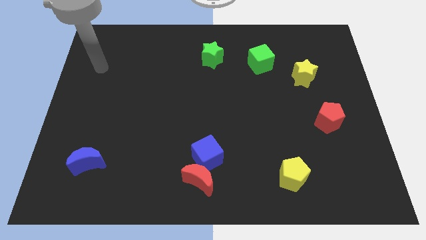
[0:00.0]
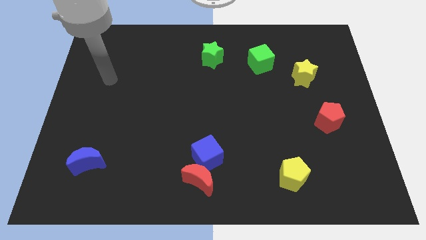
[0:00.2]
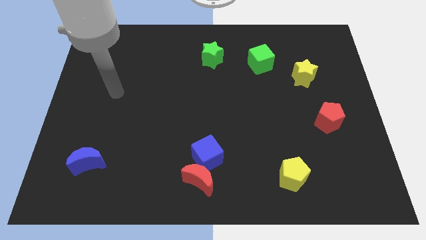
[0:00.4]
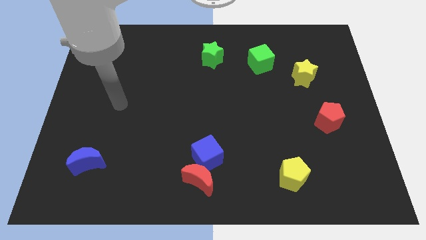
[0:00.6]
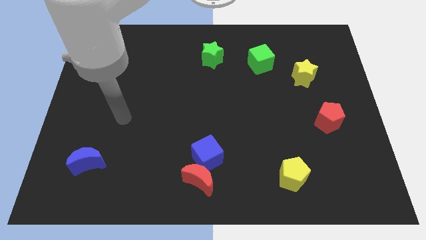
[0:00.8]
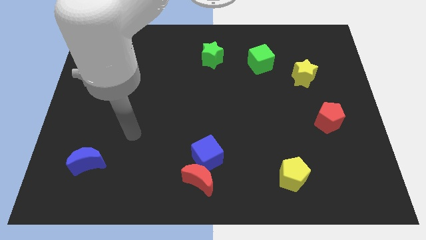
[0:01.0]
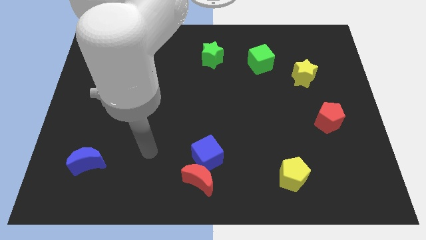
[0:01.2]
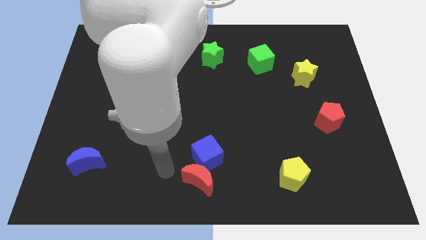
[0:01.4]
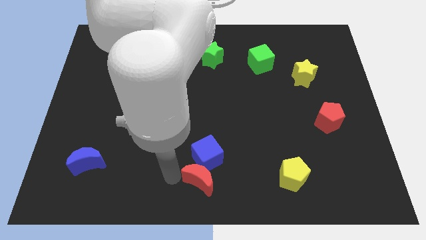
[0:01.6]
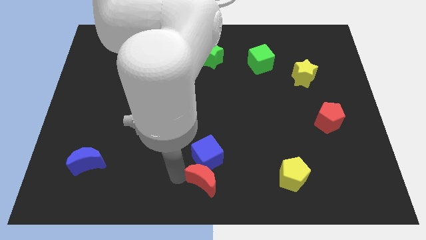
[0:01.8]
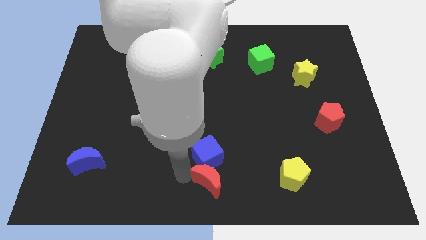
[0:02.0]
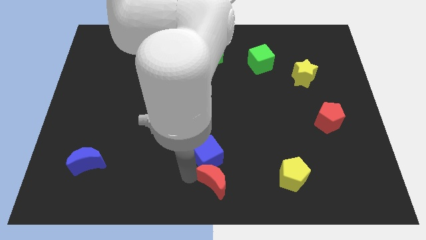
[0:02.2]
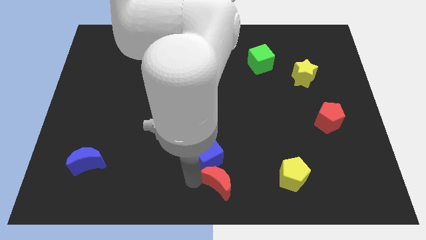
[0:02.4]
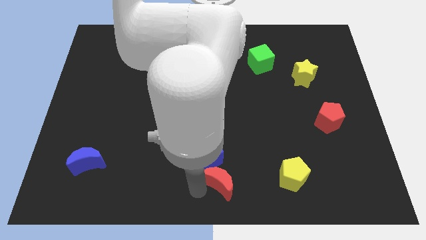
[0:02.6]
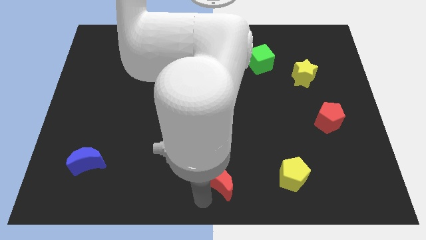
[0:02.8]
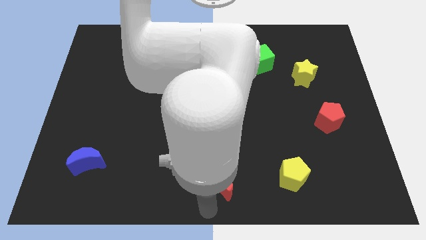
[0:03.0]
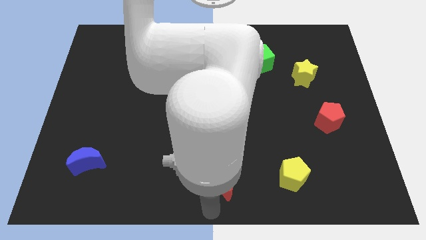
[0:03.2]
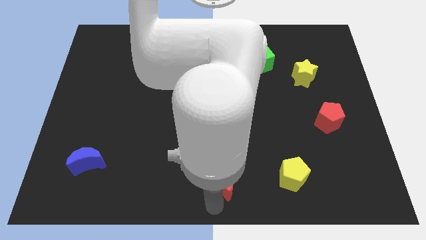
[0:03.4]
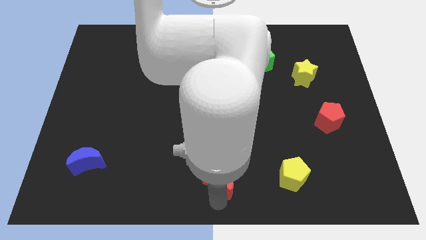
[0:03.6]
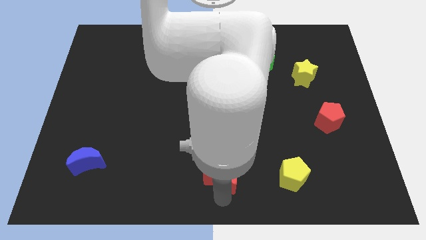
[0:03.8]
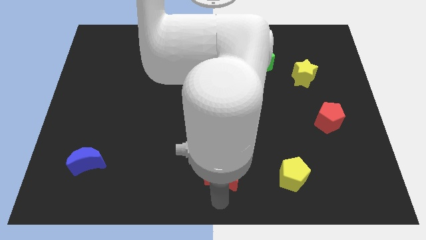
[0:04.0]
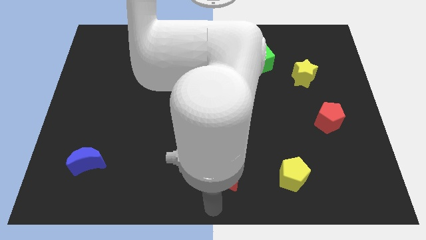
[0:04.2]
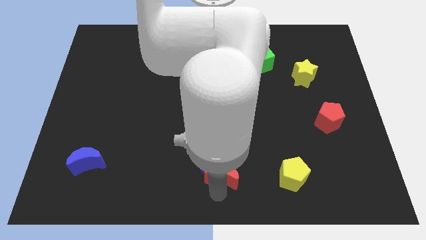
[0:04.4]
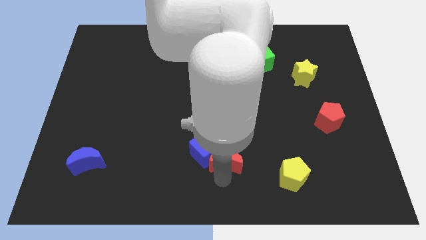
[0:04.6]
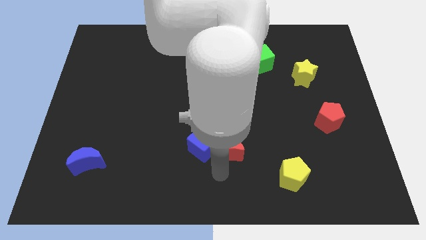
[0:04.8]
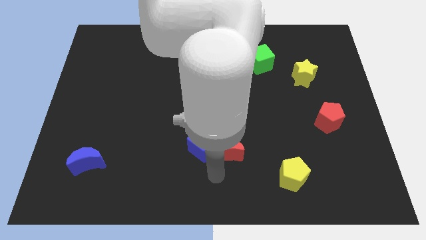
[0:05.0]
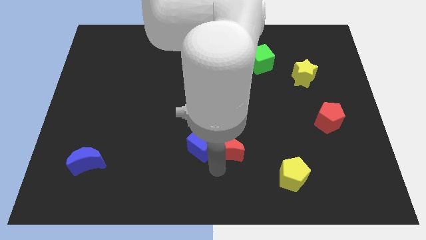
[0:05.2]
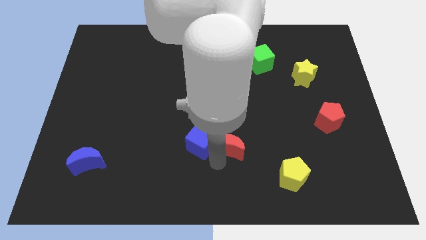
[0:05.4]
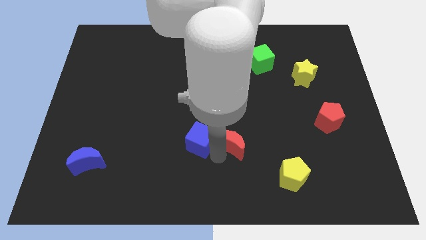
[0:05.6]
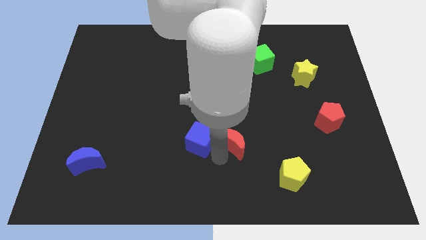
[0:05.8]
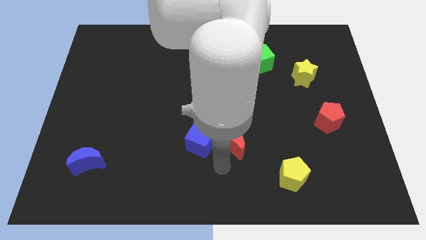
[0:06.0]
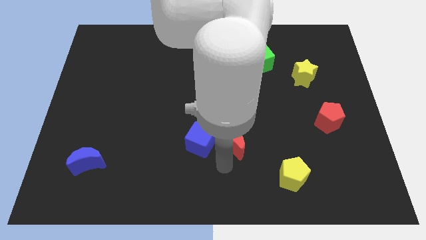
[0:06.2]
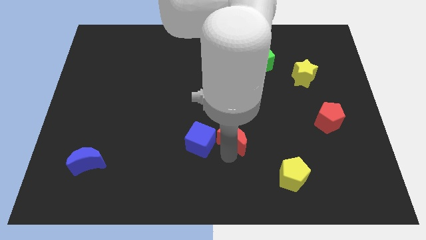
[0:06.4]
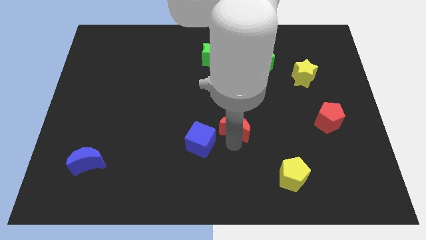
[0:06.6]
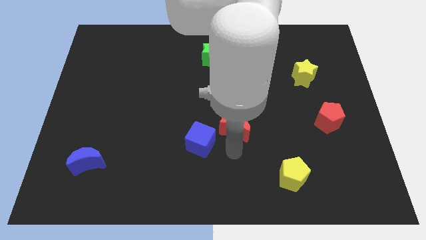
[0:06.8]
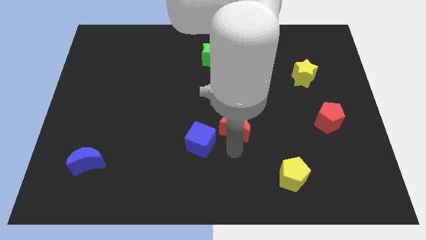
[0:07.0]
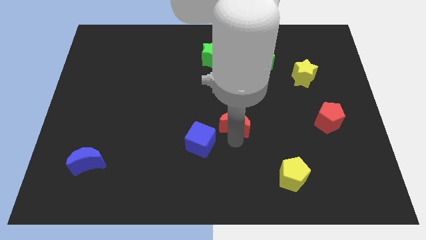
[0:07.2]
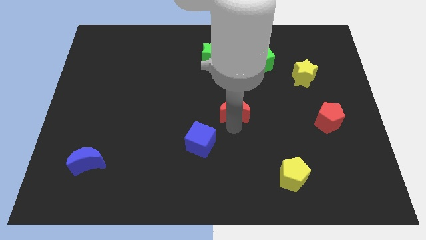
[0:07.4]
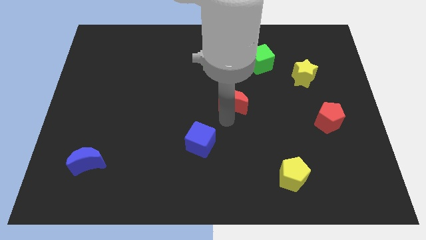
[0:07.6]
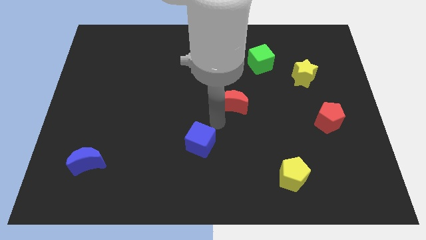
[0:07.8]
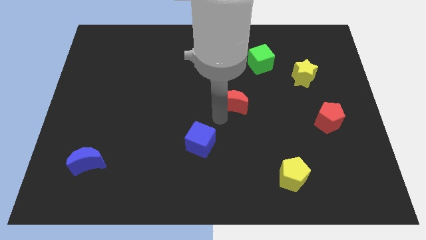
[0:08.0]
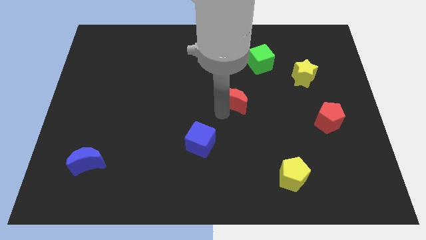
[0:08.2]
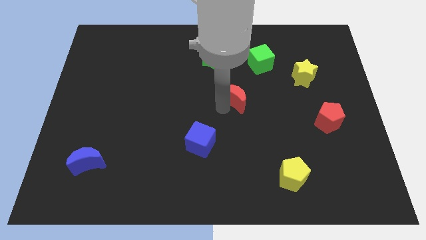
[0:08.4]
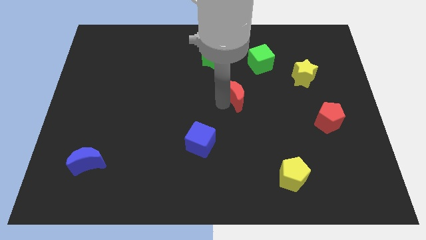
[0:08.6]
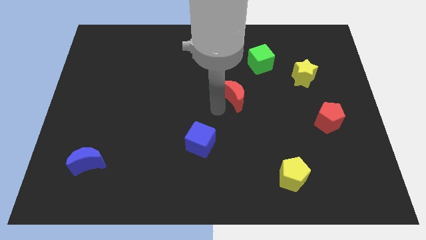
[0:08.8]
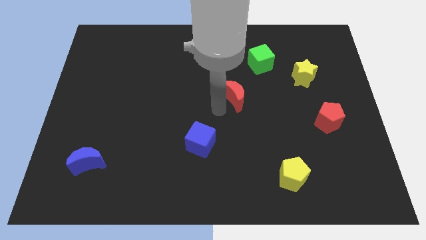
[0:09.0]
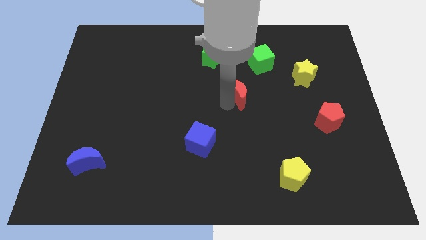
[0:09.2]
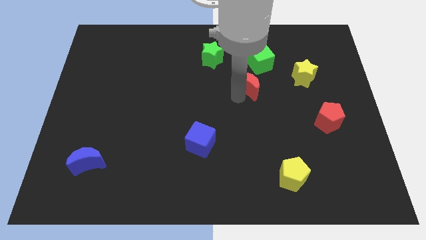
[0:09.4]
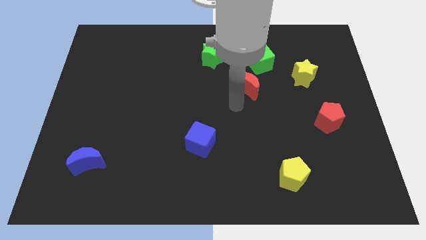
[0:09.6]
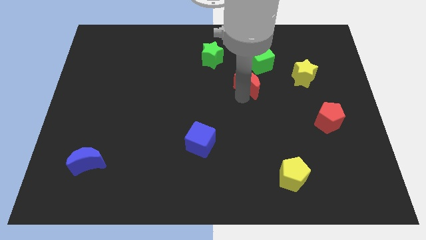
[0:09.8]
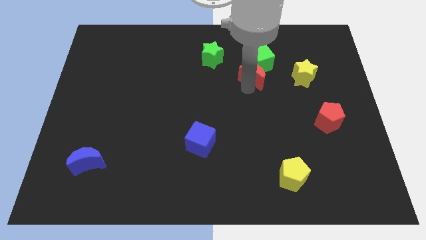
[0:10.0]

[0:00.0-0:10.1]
put the red moon close to the green cube

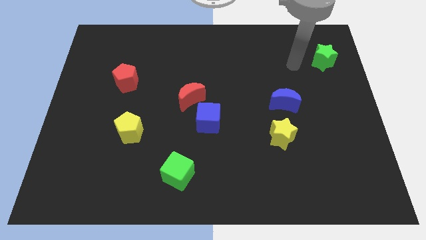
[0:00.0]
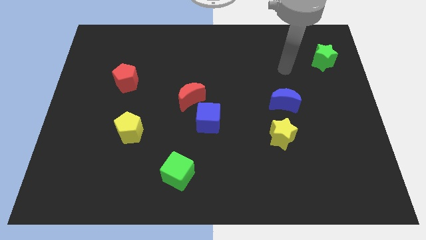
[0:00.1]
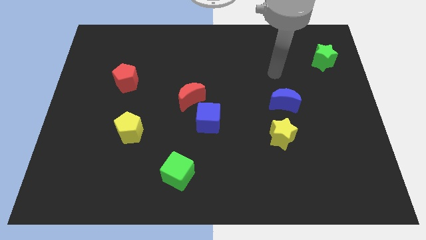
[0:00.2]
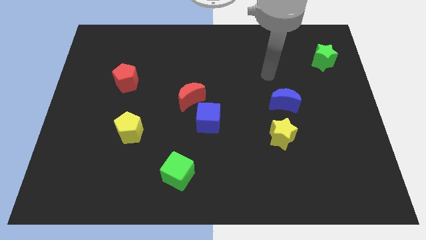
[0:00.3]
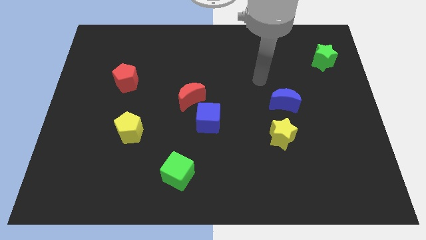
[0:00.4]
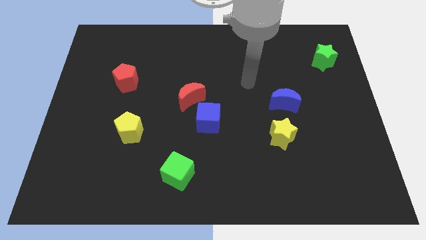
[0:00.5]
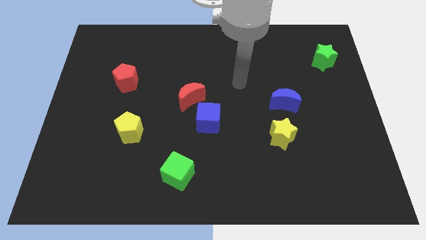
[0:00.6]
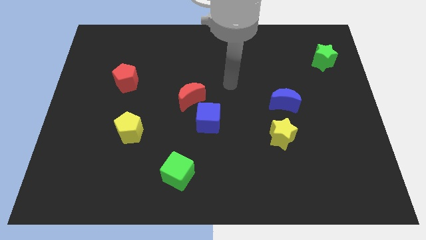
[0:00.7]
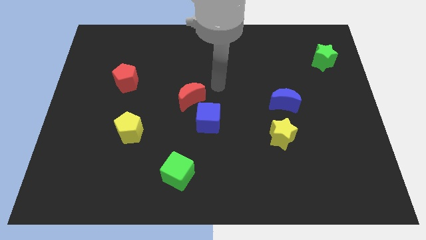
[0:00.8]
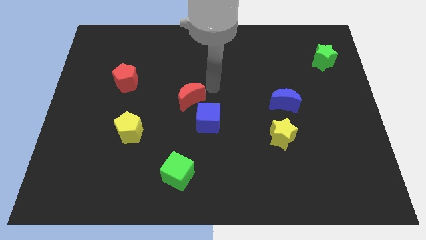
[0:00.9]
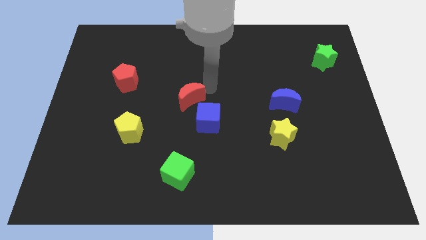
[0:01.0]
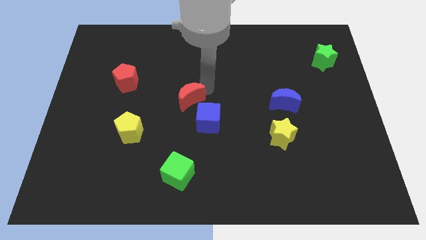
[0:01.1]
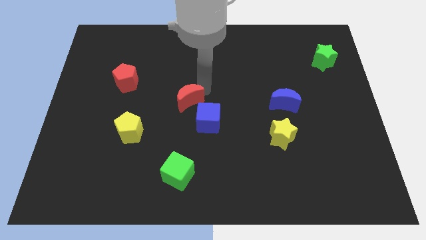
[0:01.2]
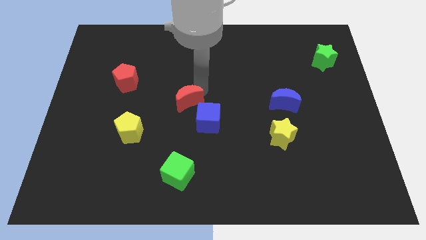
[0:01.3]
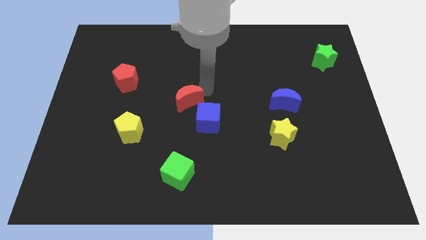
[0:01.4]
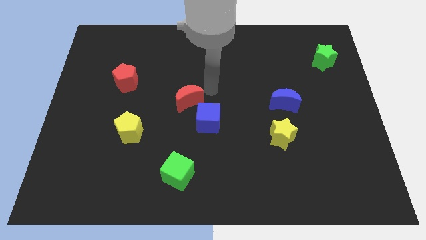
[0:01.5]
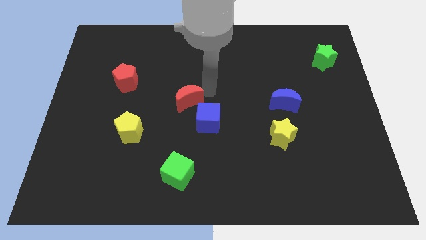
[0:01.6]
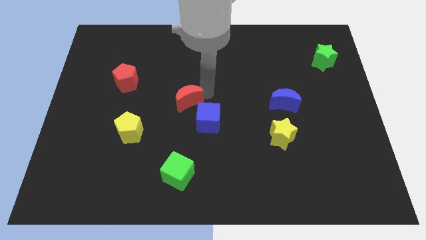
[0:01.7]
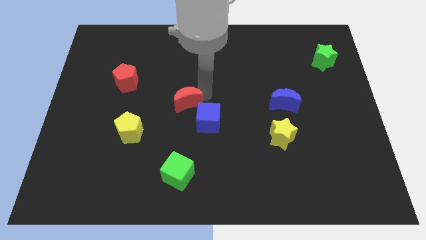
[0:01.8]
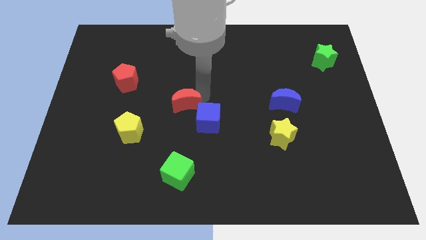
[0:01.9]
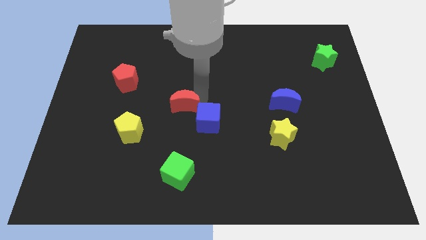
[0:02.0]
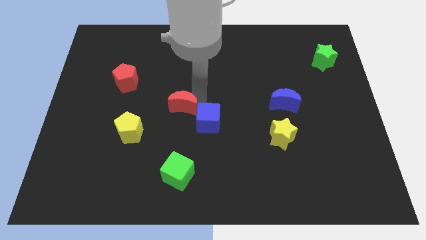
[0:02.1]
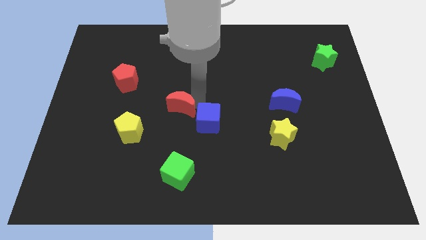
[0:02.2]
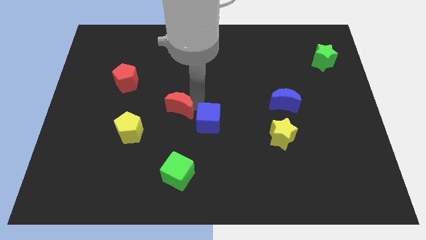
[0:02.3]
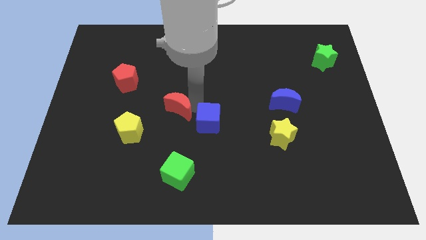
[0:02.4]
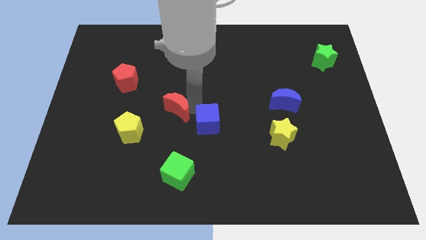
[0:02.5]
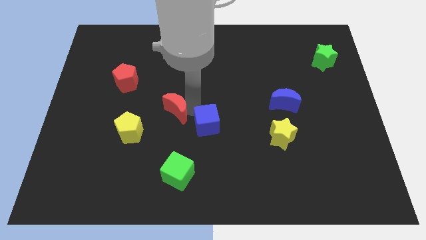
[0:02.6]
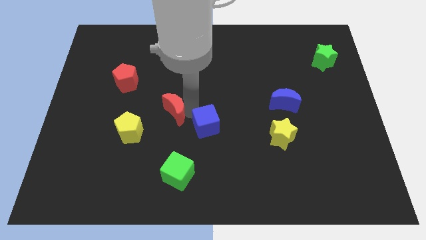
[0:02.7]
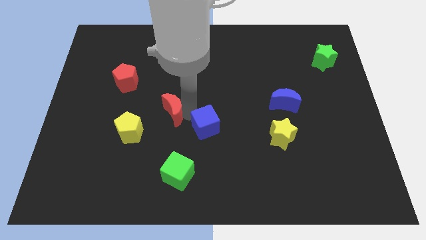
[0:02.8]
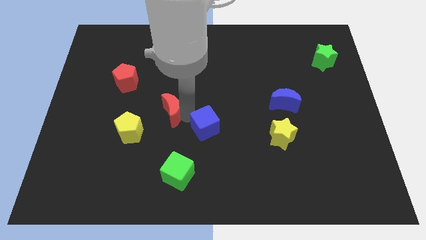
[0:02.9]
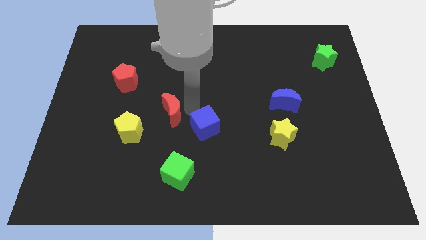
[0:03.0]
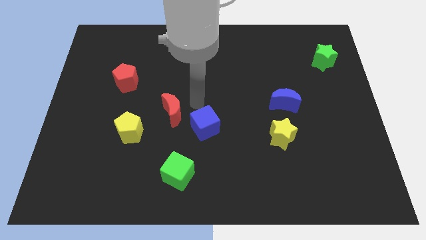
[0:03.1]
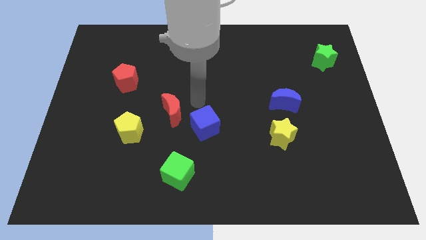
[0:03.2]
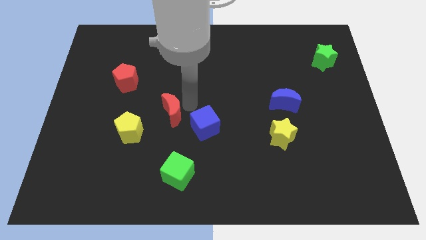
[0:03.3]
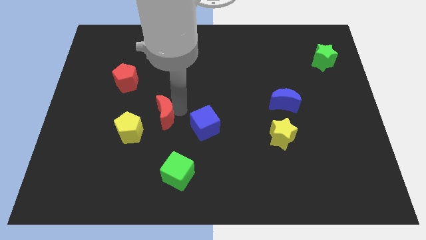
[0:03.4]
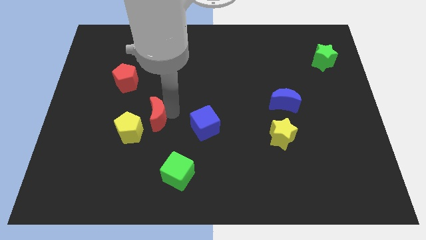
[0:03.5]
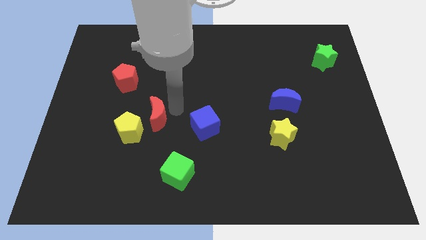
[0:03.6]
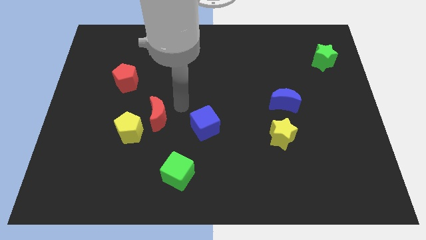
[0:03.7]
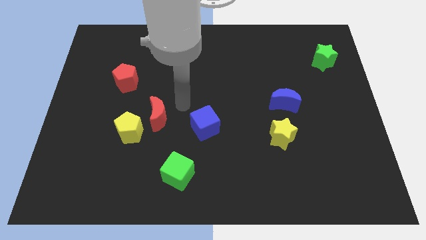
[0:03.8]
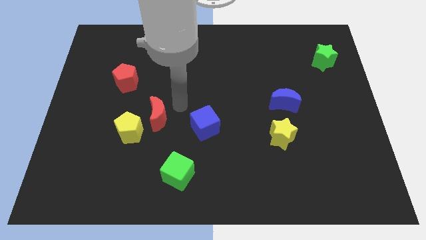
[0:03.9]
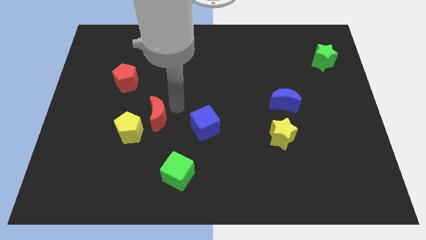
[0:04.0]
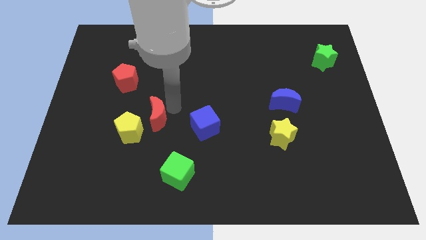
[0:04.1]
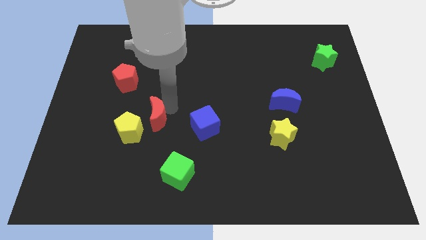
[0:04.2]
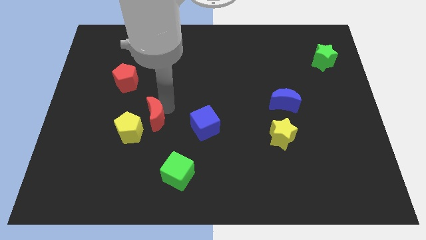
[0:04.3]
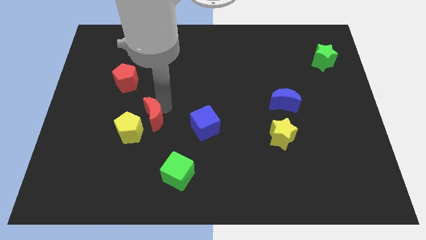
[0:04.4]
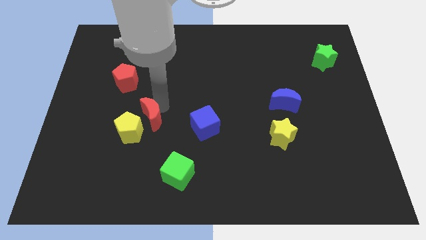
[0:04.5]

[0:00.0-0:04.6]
move the red moon to the yellow pentagon
